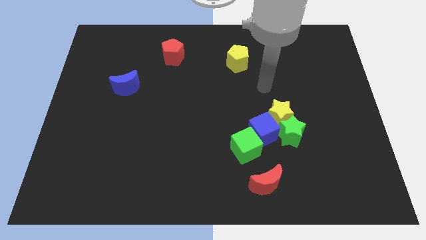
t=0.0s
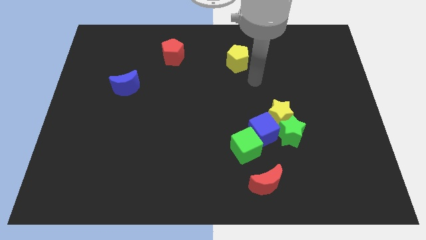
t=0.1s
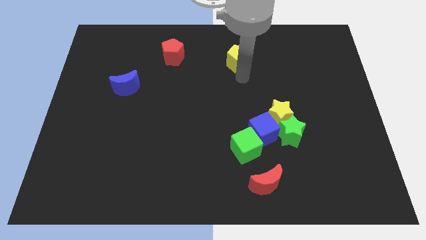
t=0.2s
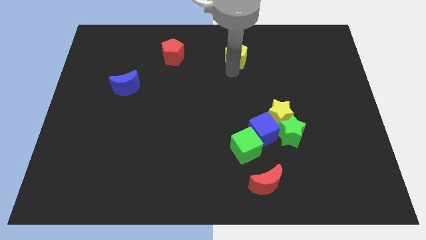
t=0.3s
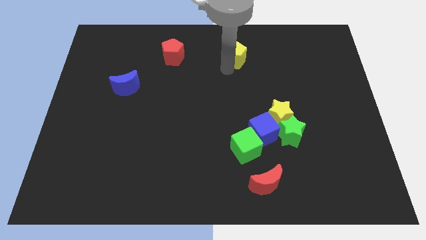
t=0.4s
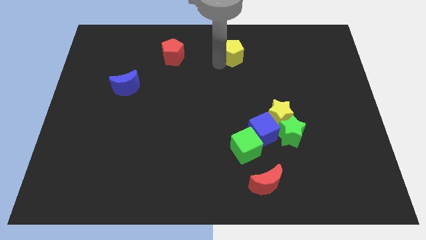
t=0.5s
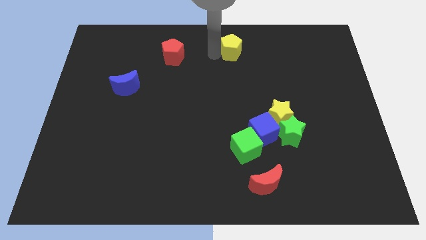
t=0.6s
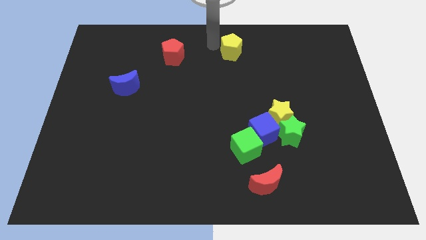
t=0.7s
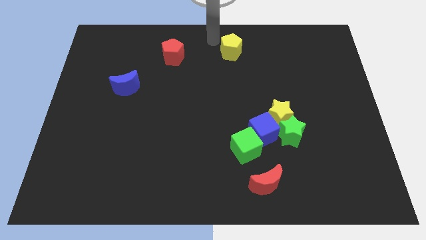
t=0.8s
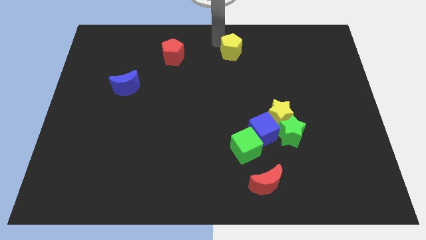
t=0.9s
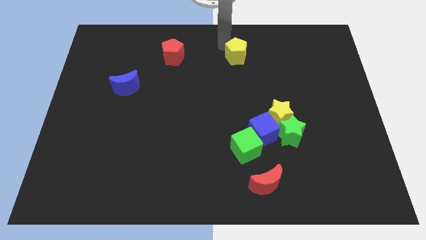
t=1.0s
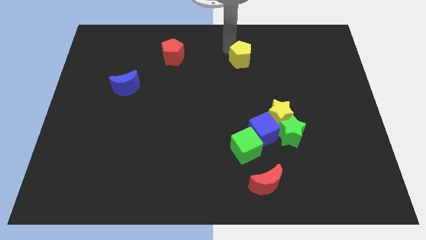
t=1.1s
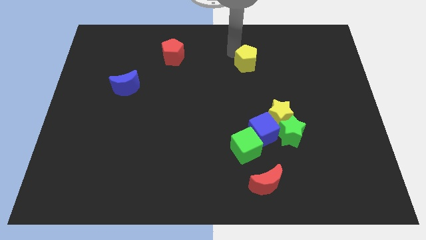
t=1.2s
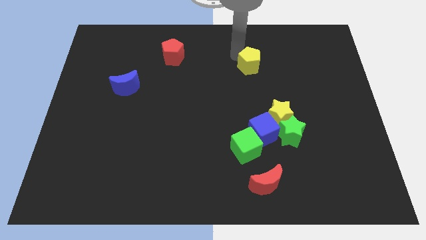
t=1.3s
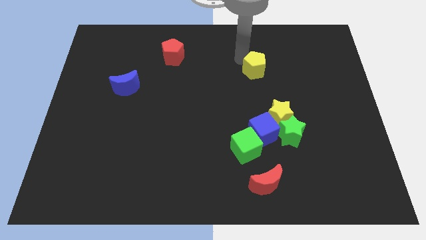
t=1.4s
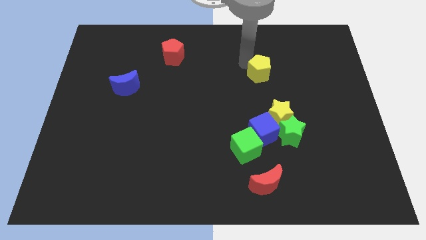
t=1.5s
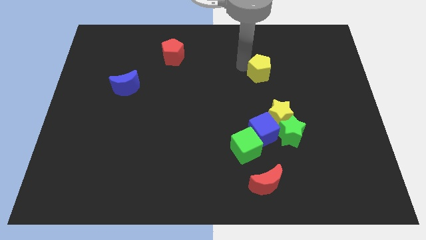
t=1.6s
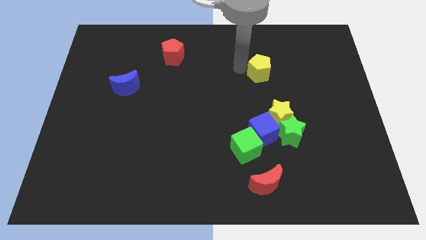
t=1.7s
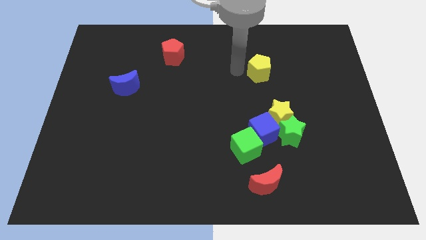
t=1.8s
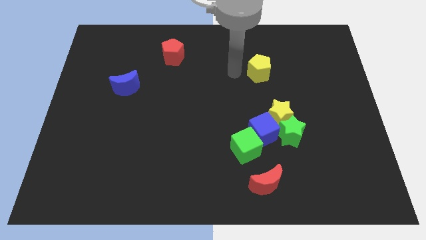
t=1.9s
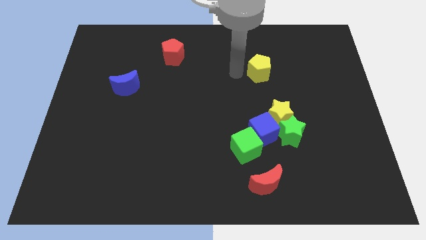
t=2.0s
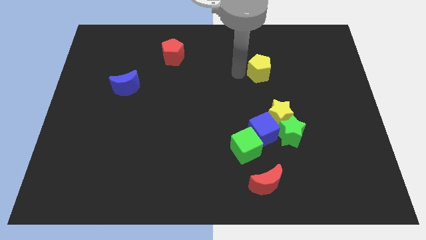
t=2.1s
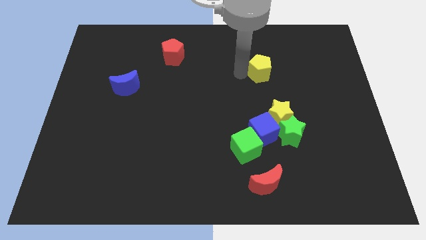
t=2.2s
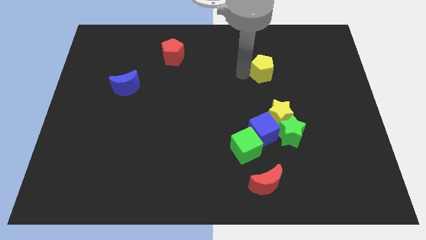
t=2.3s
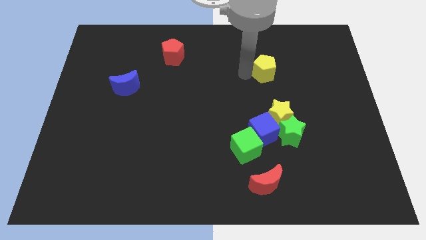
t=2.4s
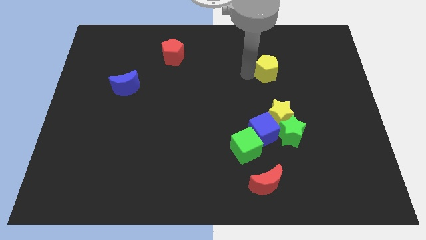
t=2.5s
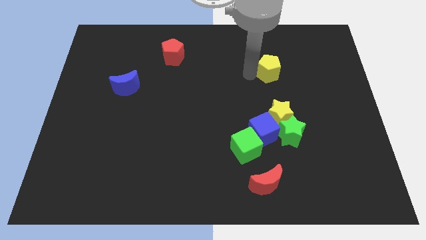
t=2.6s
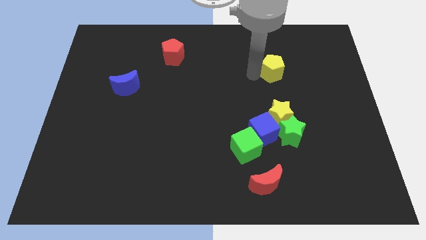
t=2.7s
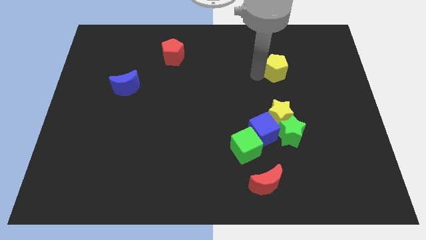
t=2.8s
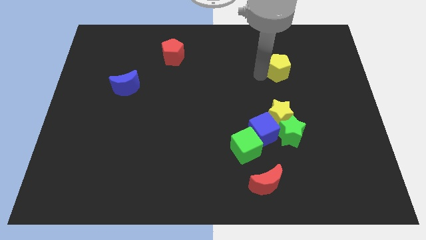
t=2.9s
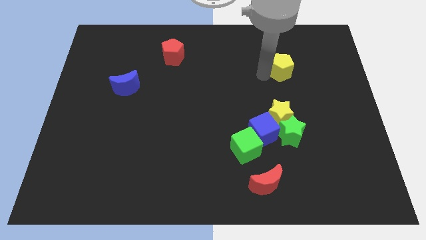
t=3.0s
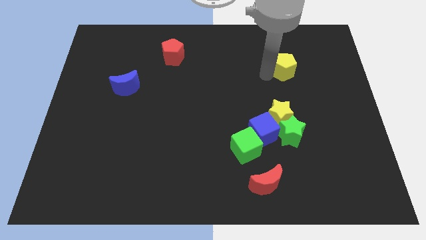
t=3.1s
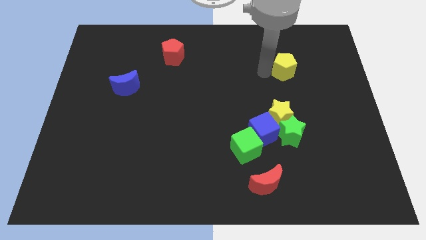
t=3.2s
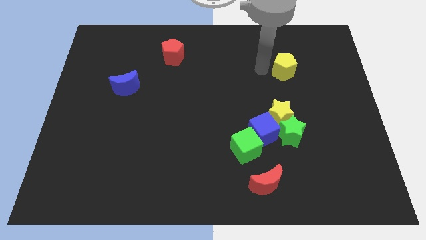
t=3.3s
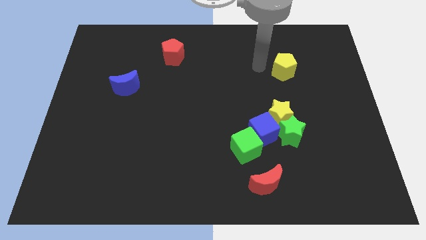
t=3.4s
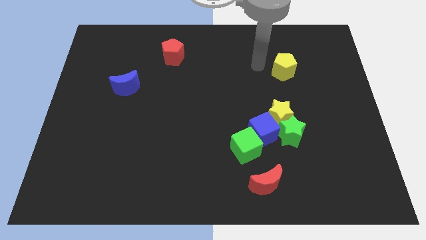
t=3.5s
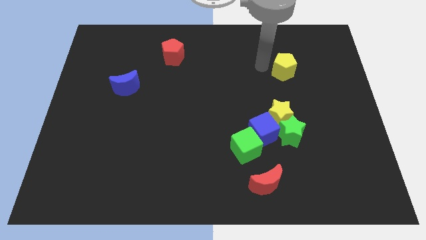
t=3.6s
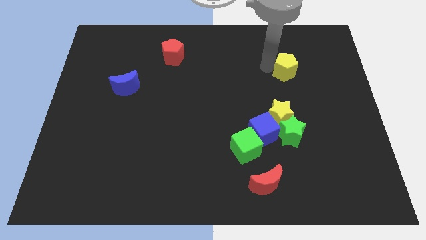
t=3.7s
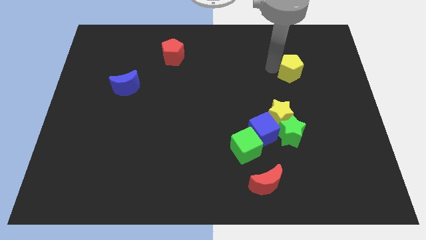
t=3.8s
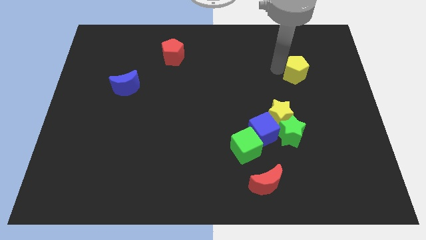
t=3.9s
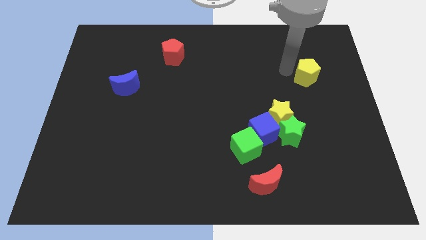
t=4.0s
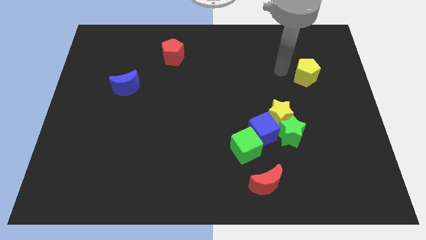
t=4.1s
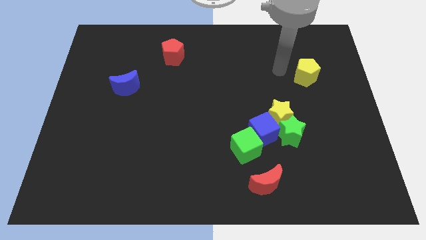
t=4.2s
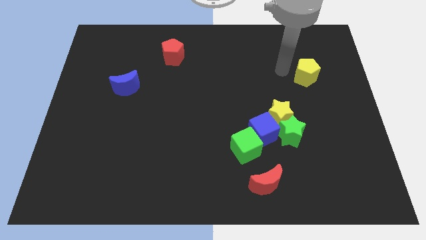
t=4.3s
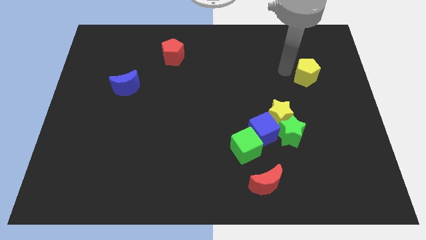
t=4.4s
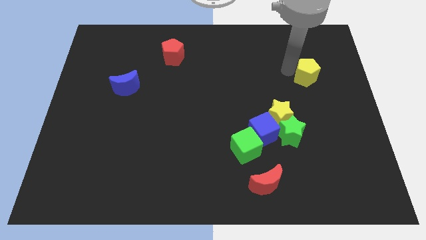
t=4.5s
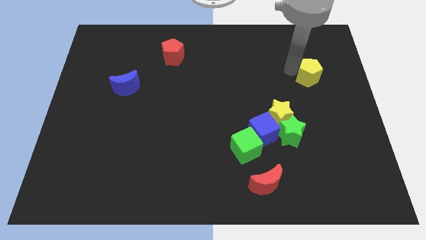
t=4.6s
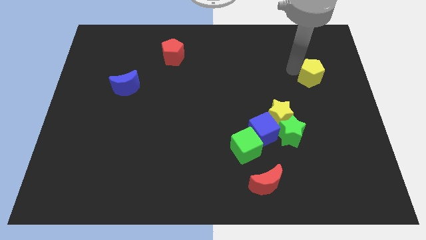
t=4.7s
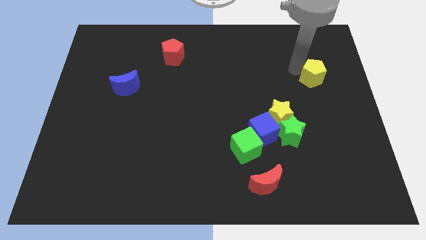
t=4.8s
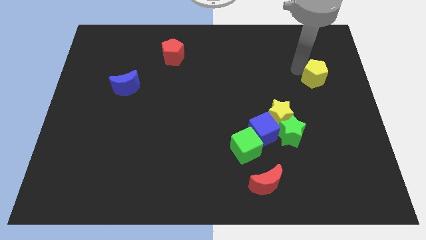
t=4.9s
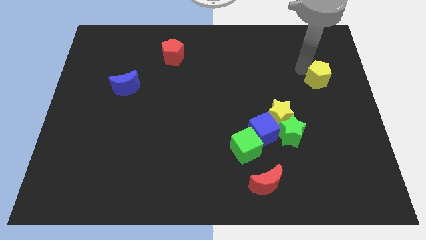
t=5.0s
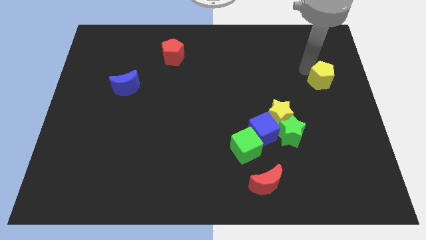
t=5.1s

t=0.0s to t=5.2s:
slide the yellow pentagon to the right side

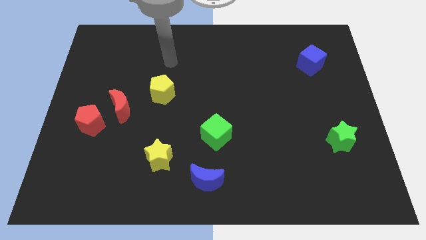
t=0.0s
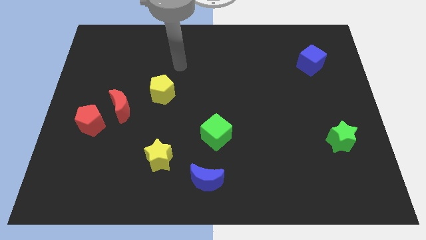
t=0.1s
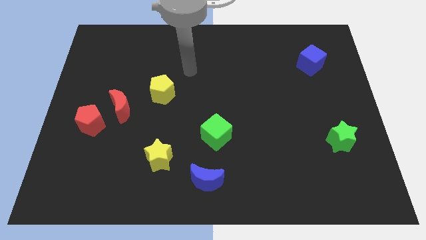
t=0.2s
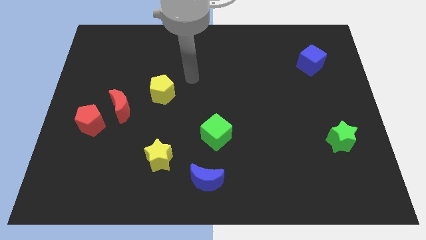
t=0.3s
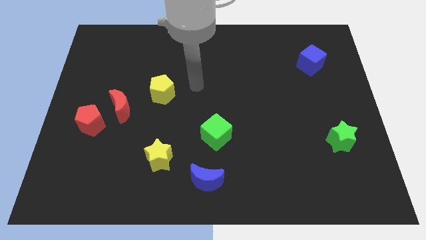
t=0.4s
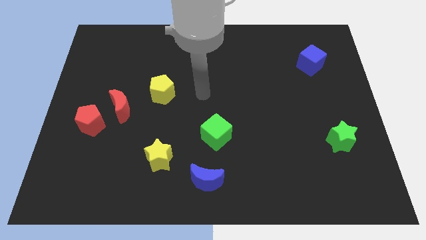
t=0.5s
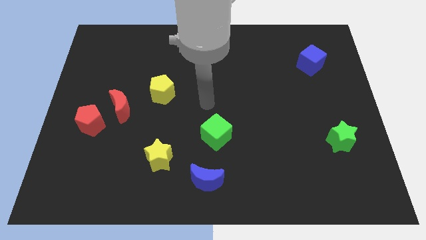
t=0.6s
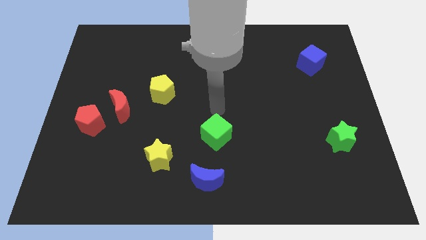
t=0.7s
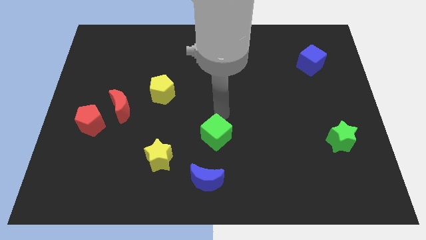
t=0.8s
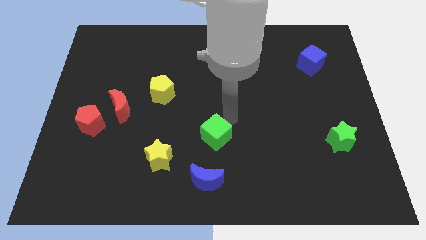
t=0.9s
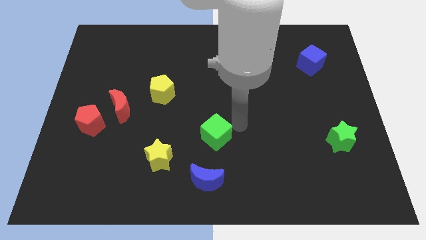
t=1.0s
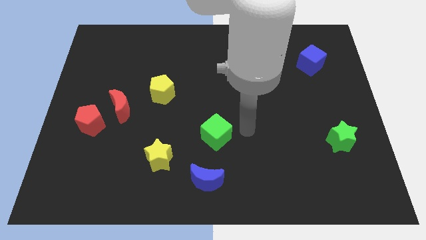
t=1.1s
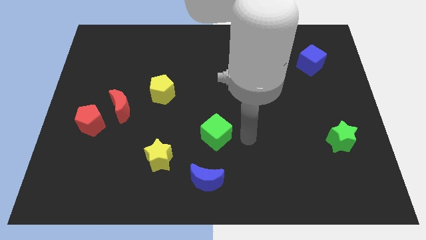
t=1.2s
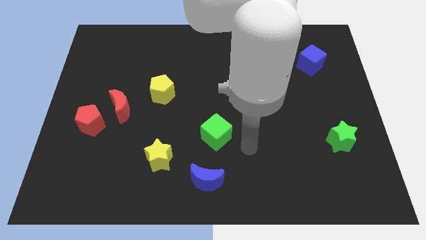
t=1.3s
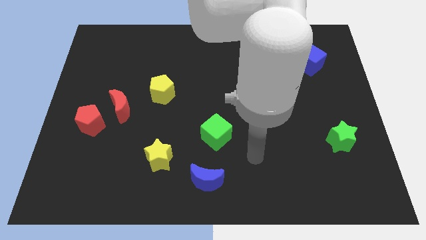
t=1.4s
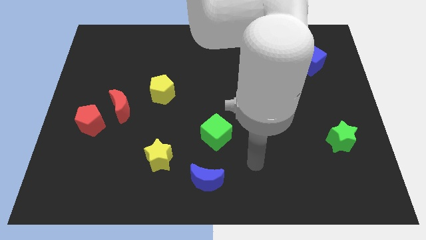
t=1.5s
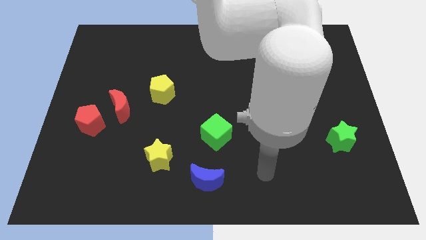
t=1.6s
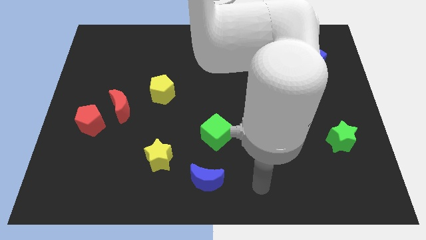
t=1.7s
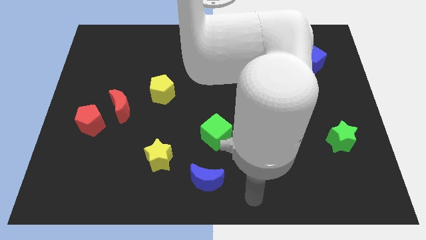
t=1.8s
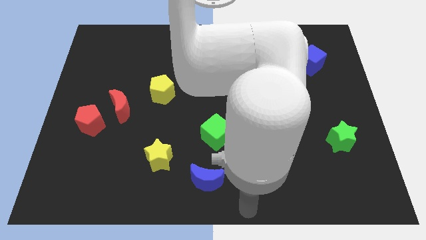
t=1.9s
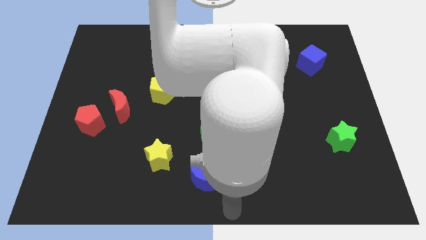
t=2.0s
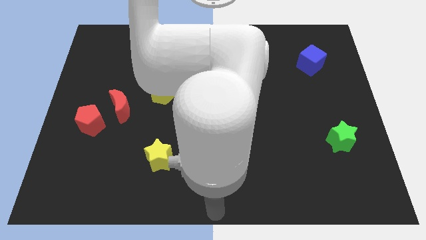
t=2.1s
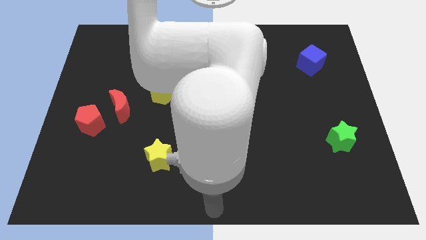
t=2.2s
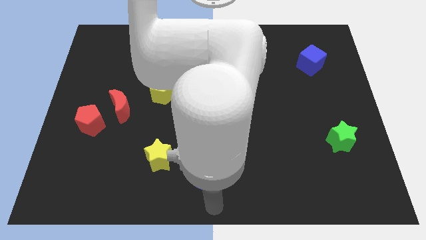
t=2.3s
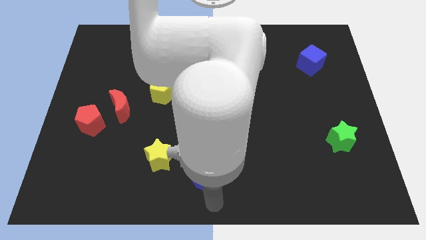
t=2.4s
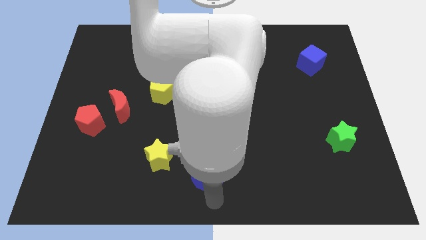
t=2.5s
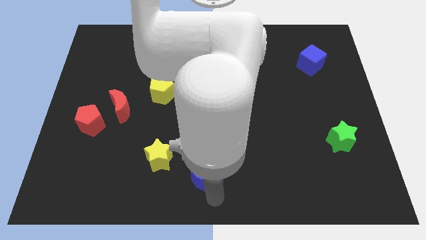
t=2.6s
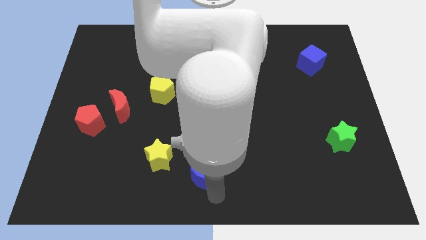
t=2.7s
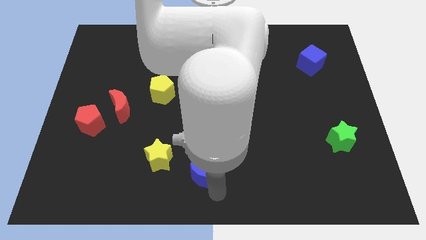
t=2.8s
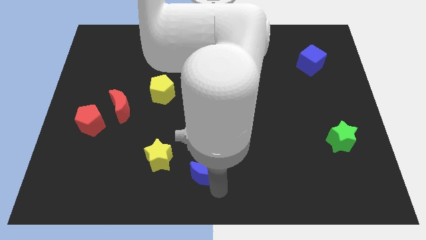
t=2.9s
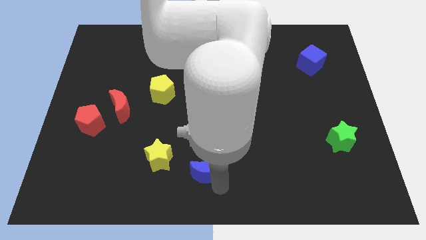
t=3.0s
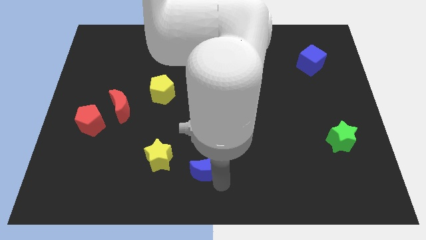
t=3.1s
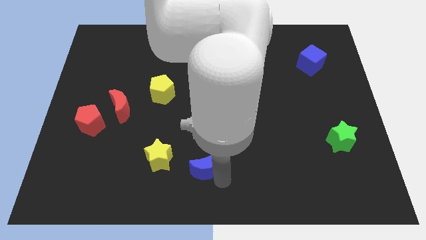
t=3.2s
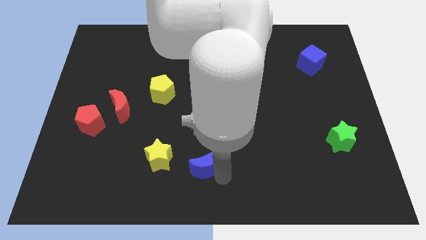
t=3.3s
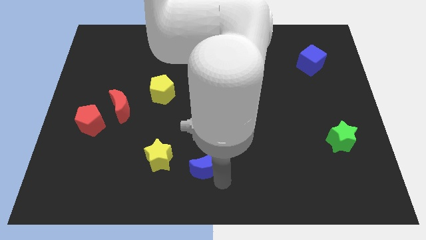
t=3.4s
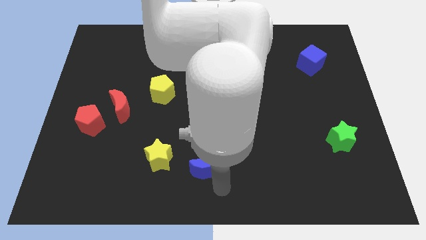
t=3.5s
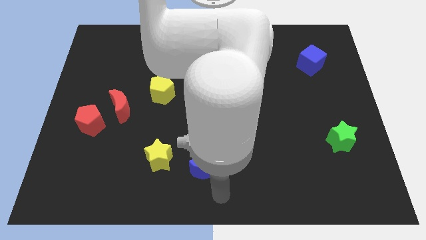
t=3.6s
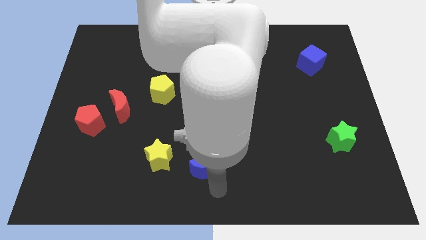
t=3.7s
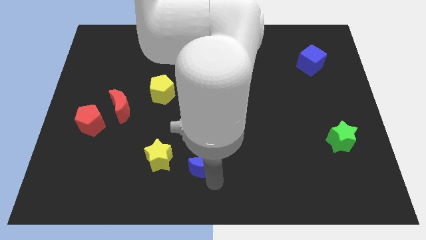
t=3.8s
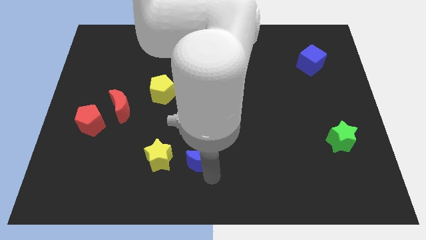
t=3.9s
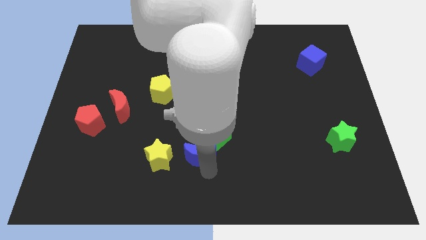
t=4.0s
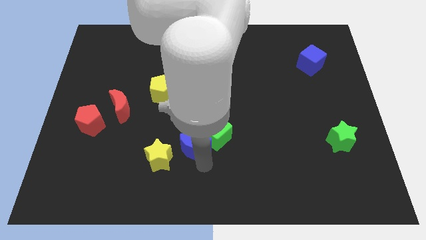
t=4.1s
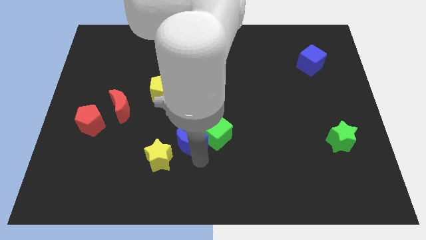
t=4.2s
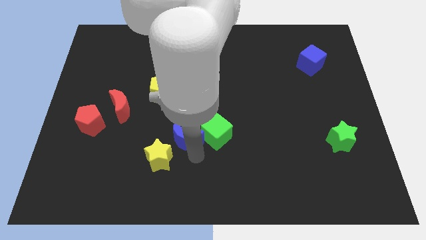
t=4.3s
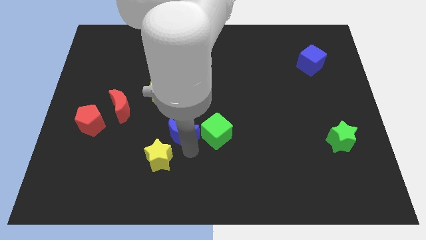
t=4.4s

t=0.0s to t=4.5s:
move the blue moon to the center of the board
